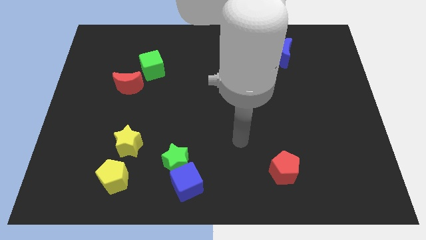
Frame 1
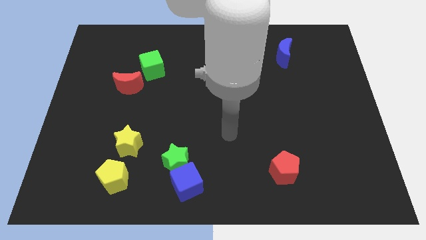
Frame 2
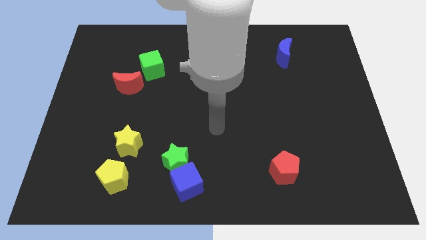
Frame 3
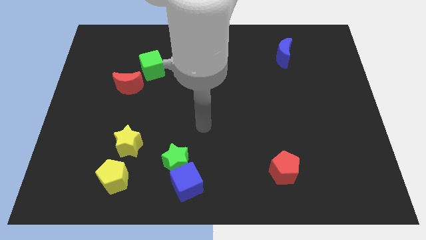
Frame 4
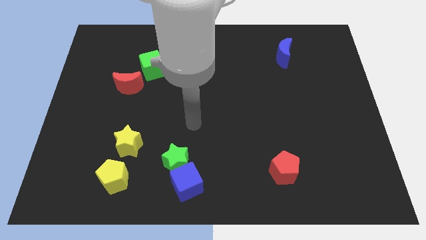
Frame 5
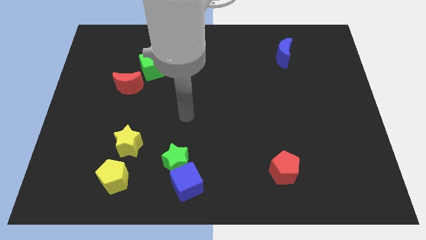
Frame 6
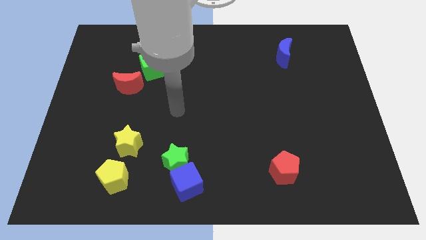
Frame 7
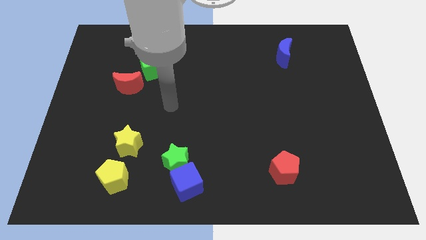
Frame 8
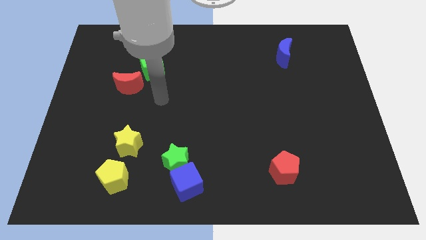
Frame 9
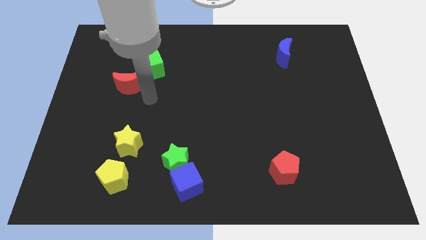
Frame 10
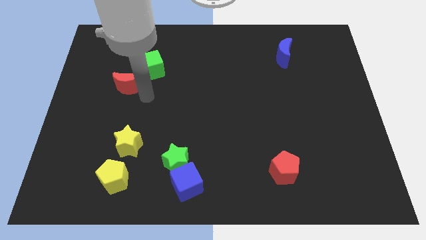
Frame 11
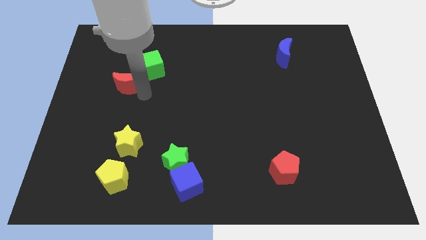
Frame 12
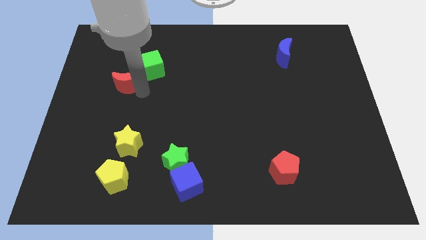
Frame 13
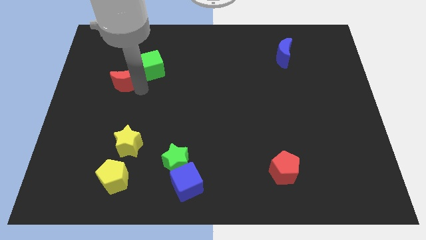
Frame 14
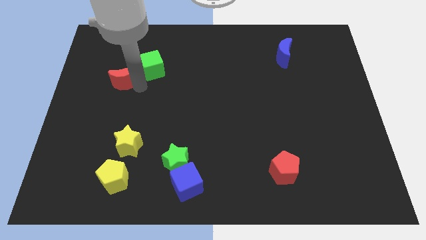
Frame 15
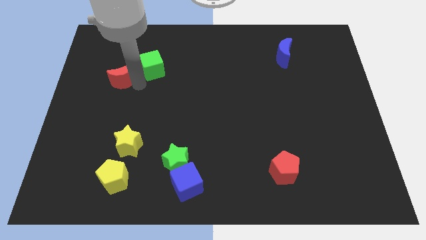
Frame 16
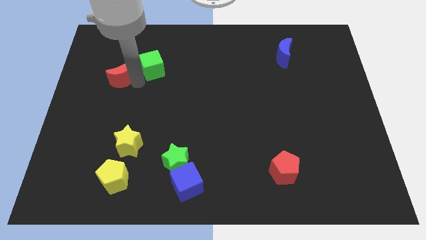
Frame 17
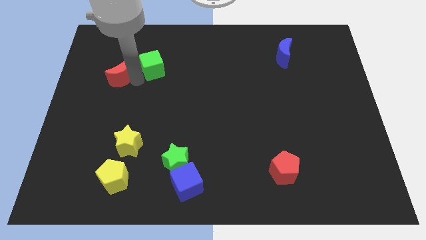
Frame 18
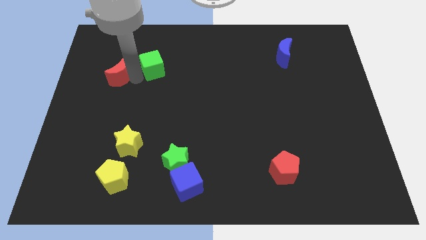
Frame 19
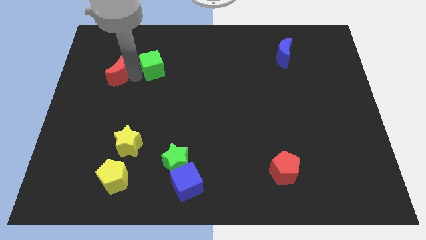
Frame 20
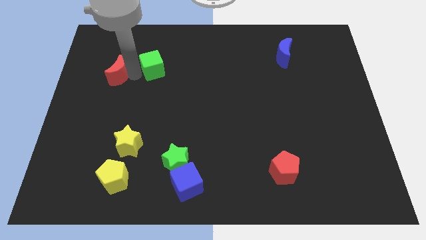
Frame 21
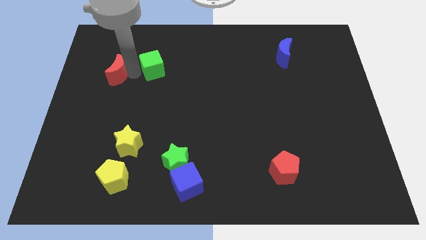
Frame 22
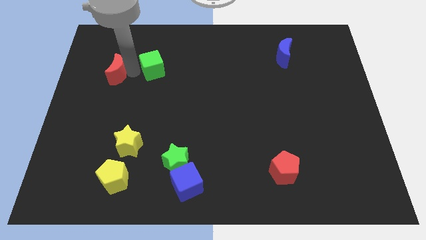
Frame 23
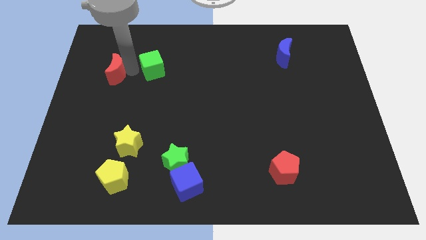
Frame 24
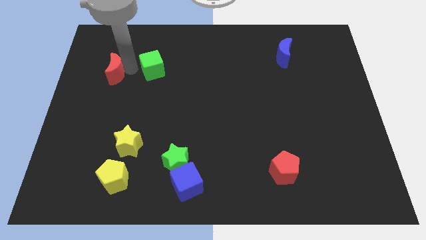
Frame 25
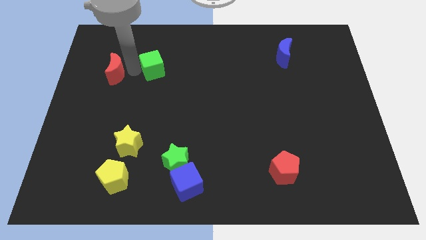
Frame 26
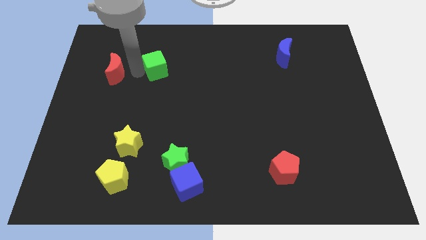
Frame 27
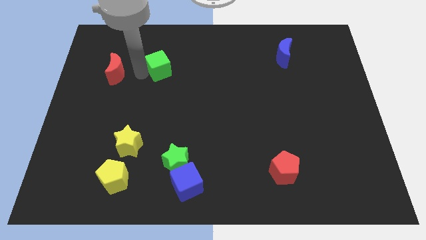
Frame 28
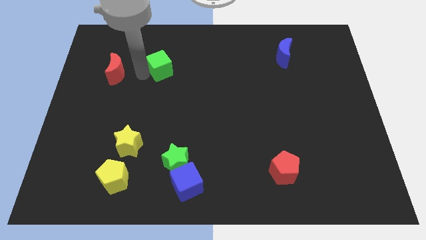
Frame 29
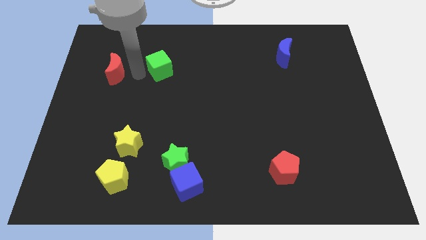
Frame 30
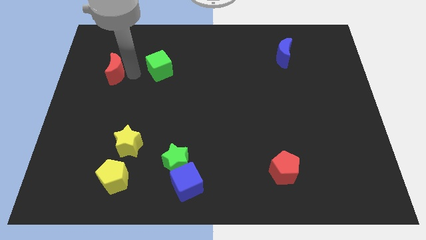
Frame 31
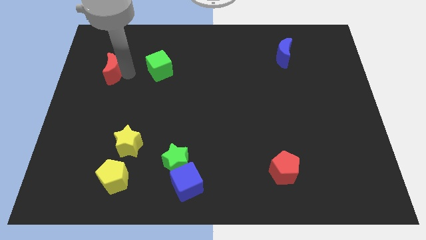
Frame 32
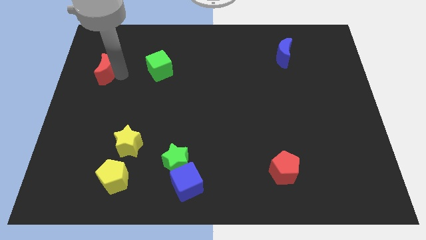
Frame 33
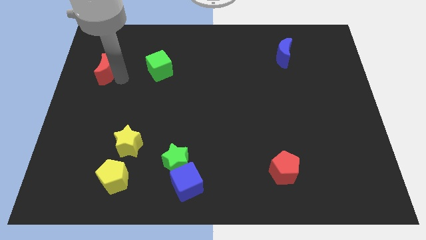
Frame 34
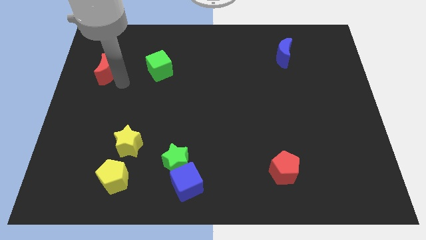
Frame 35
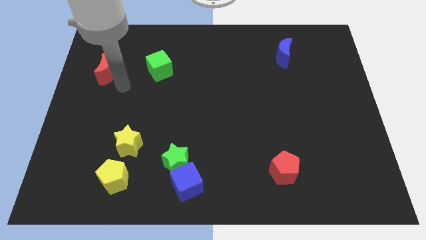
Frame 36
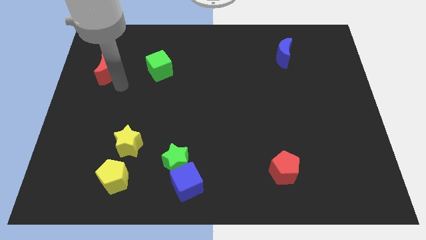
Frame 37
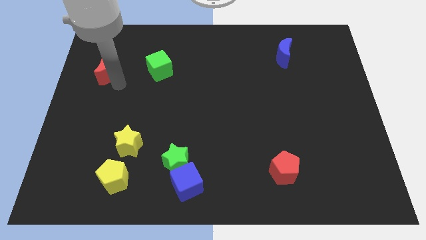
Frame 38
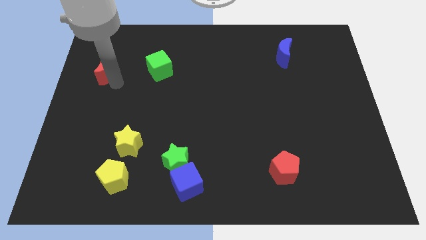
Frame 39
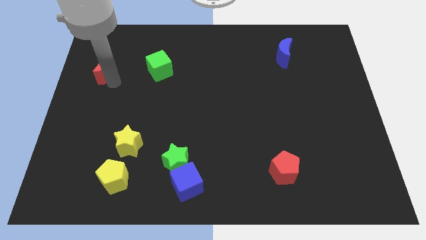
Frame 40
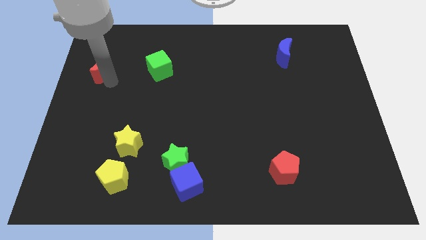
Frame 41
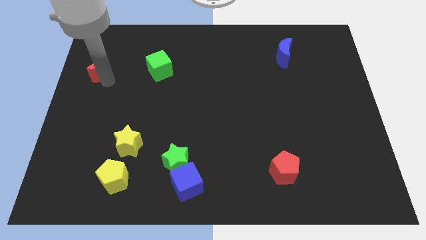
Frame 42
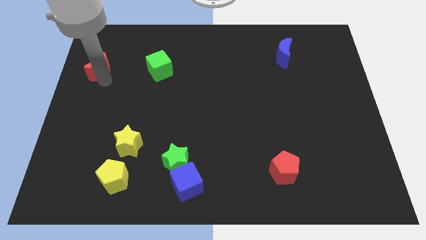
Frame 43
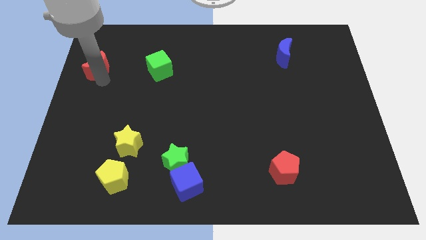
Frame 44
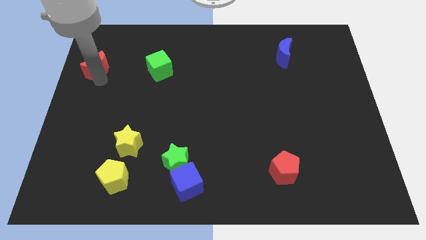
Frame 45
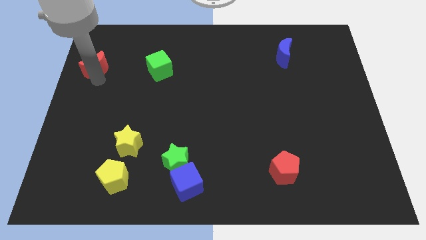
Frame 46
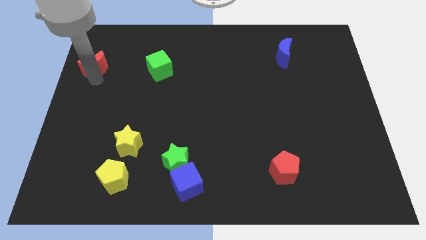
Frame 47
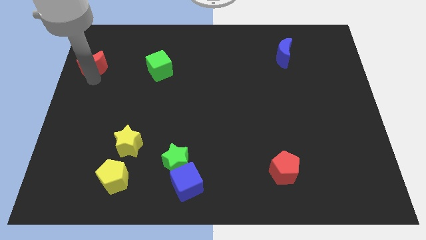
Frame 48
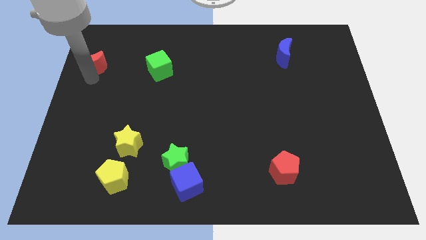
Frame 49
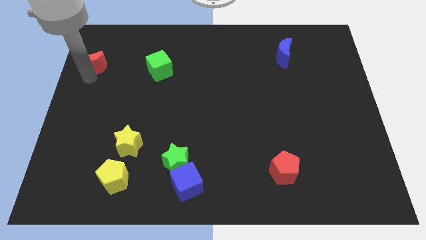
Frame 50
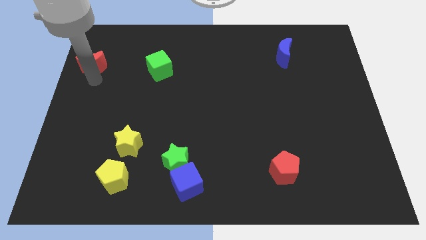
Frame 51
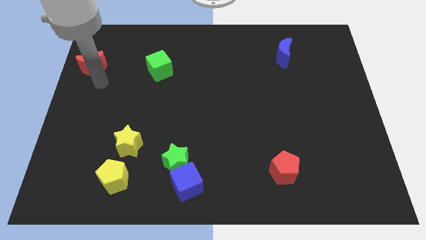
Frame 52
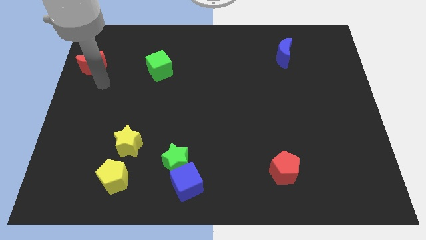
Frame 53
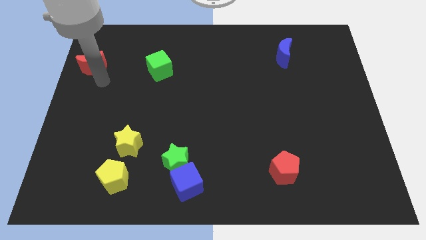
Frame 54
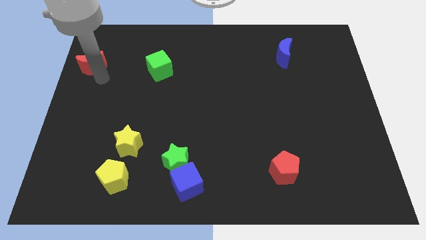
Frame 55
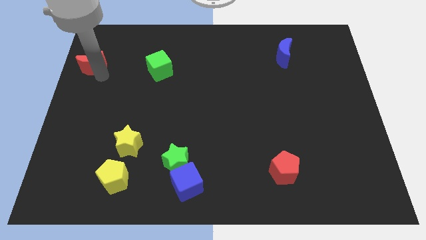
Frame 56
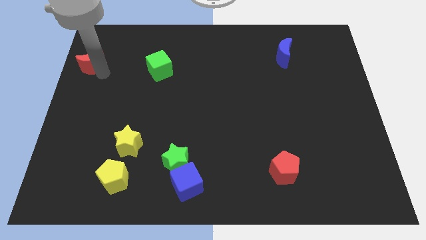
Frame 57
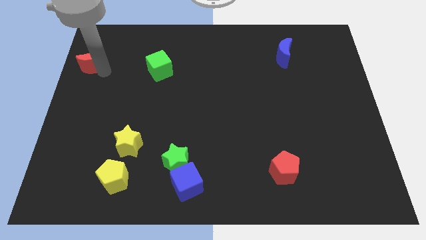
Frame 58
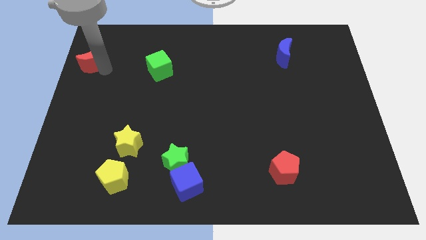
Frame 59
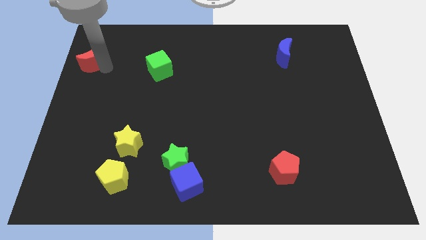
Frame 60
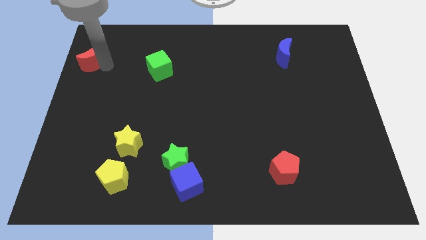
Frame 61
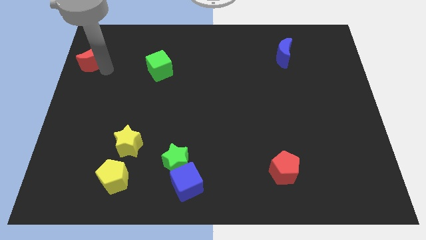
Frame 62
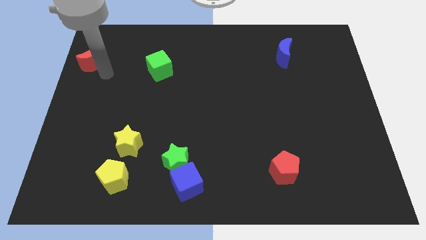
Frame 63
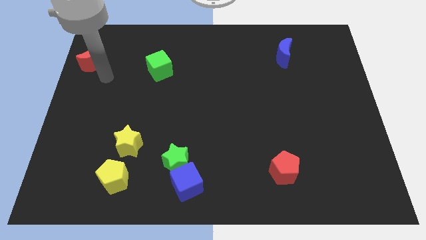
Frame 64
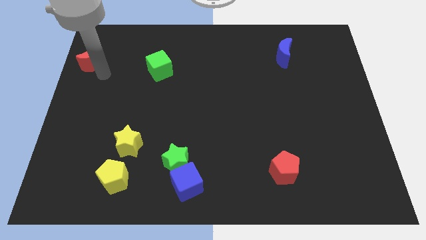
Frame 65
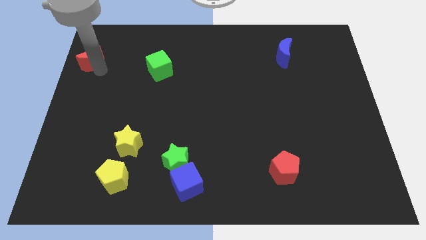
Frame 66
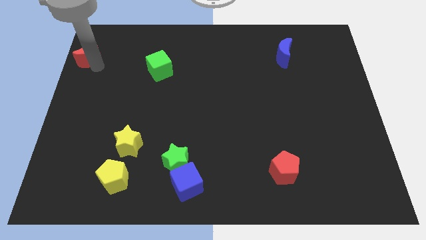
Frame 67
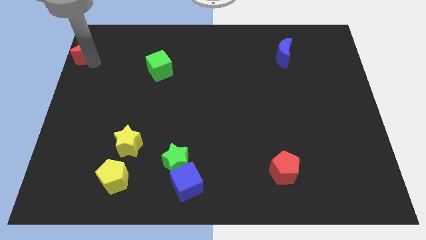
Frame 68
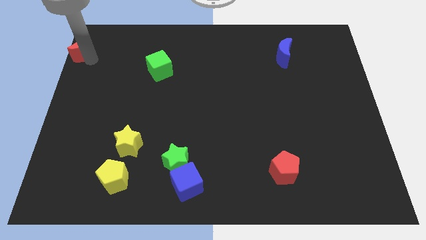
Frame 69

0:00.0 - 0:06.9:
push the red moon to the upper left corner

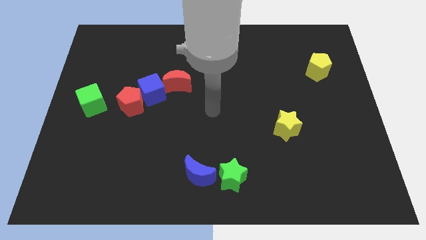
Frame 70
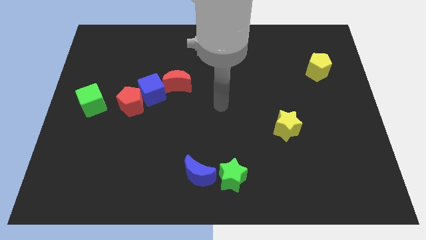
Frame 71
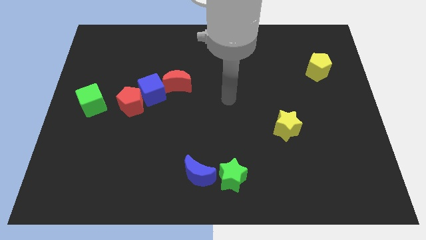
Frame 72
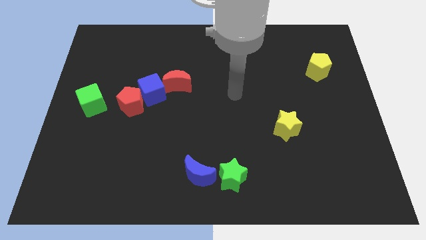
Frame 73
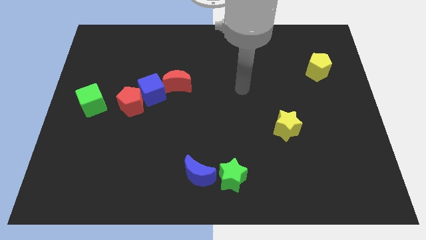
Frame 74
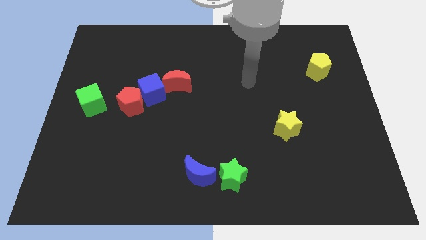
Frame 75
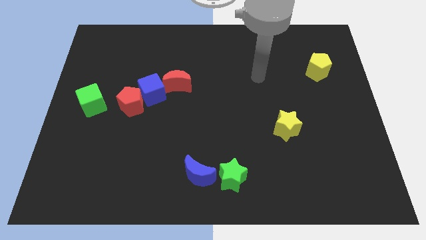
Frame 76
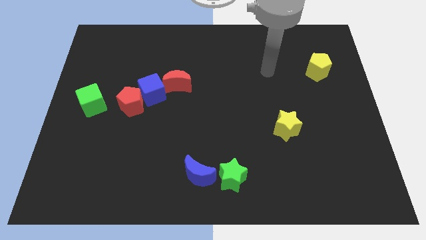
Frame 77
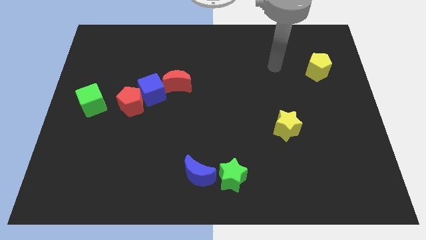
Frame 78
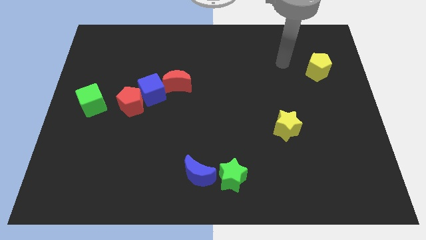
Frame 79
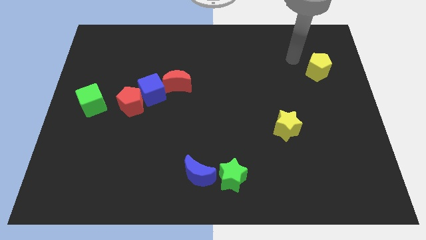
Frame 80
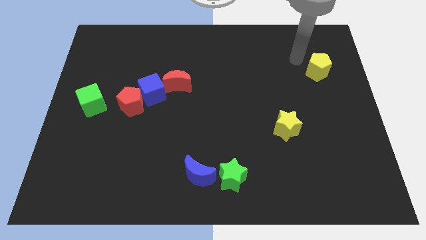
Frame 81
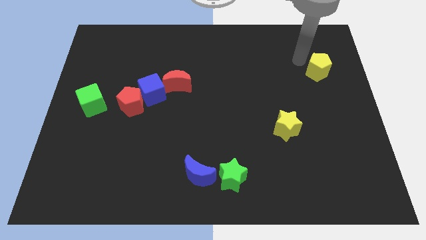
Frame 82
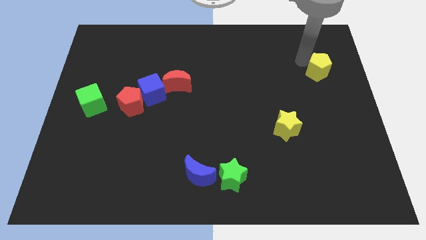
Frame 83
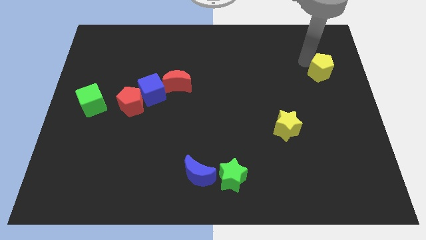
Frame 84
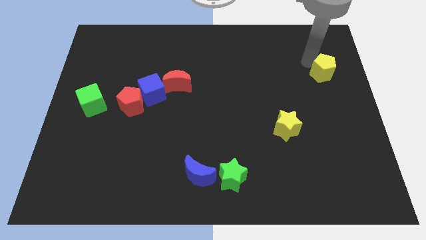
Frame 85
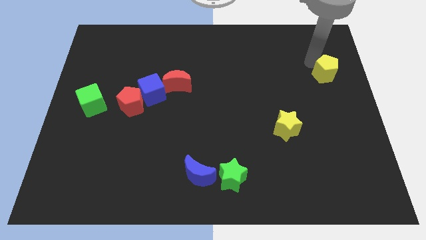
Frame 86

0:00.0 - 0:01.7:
move the yellow pentagon to the right side of the board
